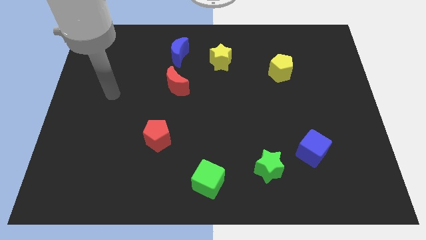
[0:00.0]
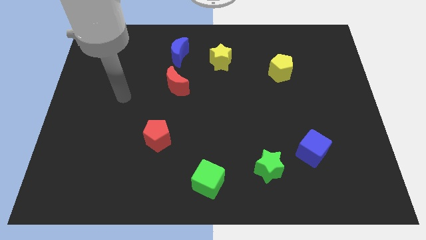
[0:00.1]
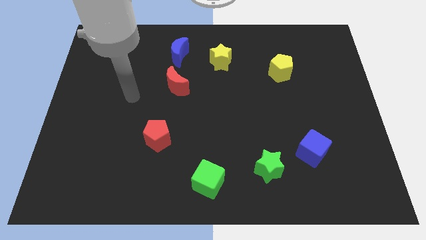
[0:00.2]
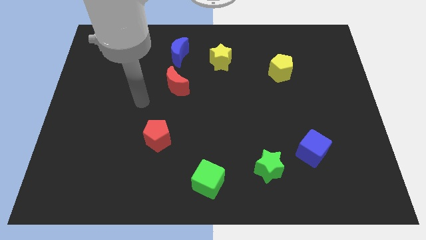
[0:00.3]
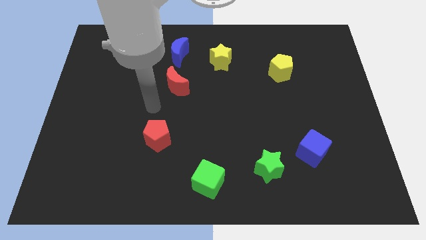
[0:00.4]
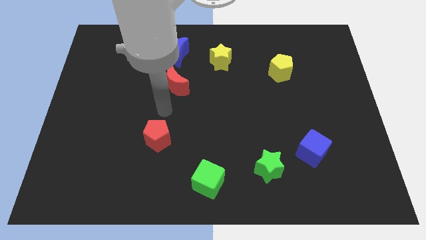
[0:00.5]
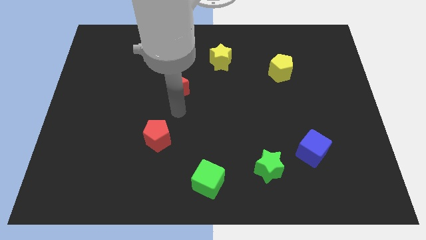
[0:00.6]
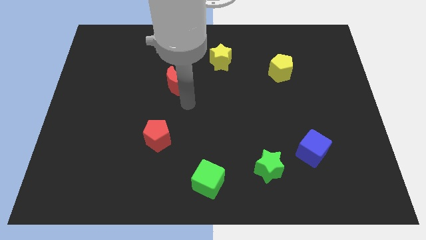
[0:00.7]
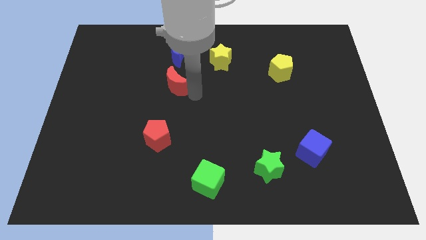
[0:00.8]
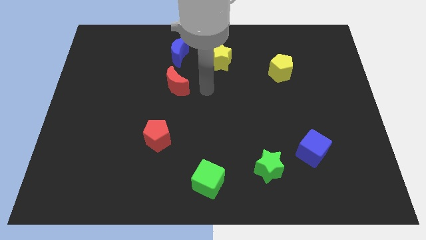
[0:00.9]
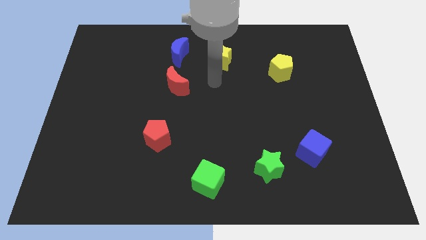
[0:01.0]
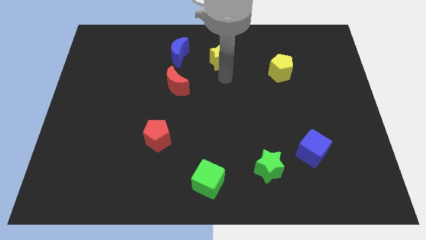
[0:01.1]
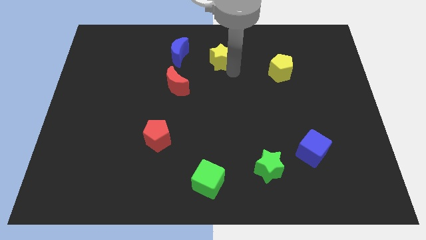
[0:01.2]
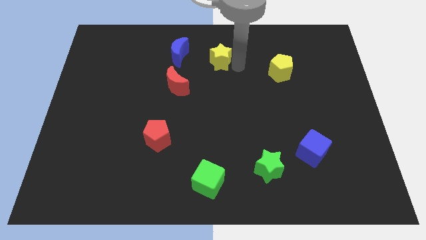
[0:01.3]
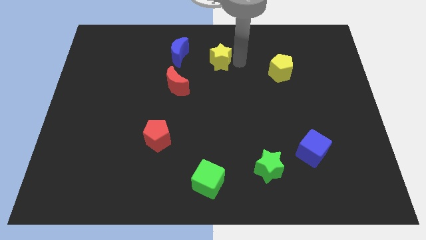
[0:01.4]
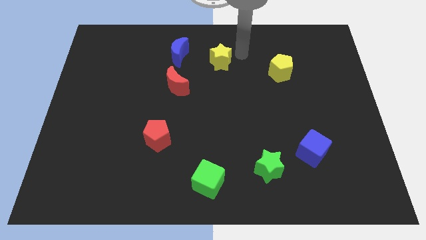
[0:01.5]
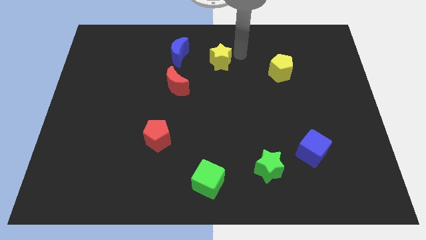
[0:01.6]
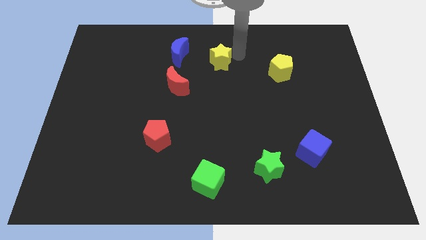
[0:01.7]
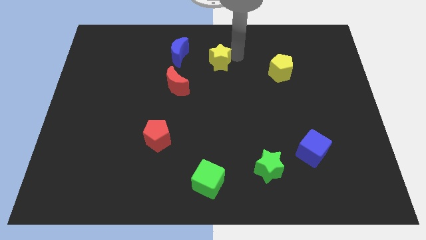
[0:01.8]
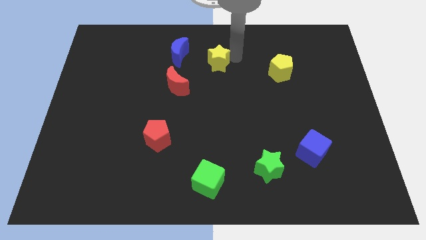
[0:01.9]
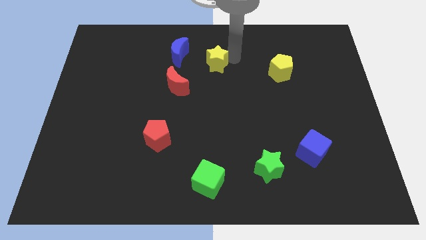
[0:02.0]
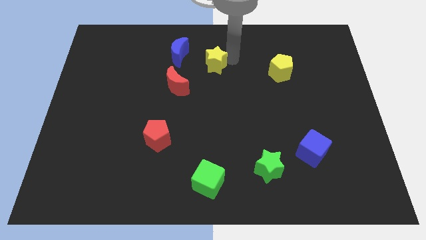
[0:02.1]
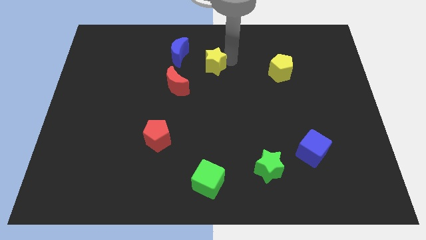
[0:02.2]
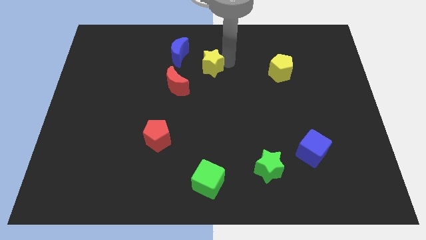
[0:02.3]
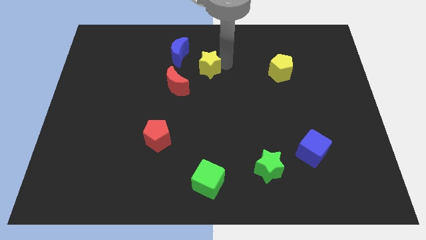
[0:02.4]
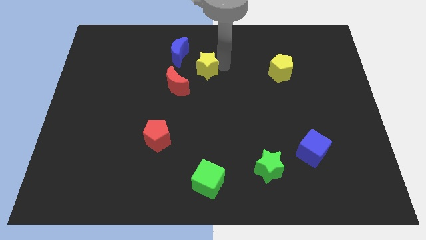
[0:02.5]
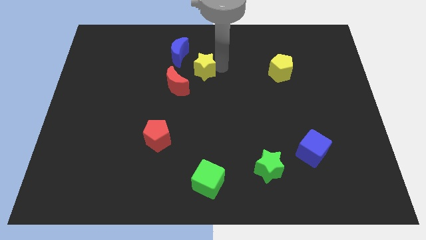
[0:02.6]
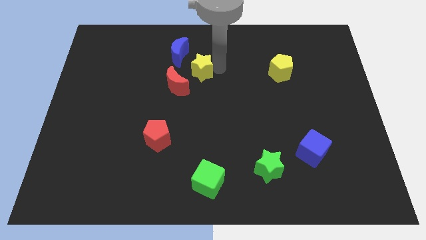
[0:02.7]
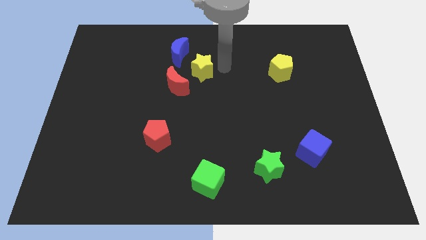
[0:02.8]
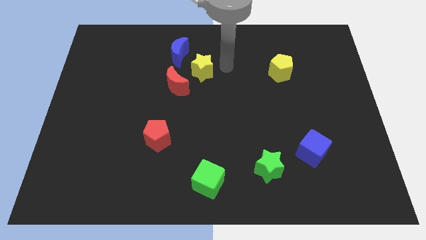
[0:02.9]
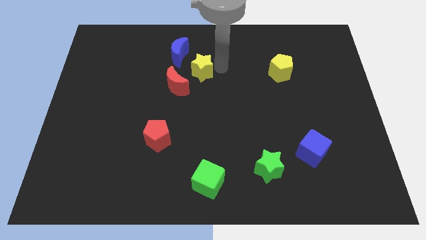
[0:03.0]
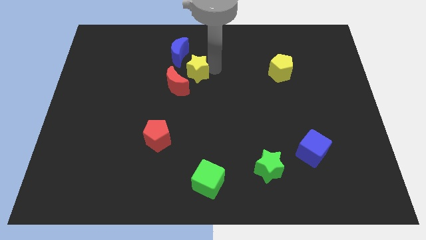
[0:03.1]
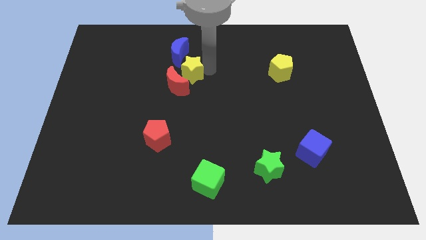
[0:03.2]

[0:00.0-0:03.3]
slightly push the yellow star to the left

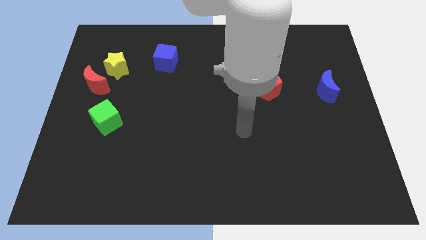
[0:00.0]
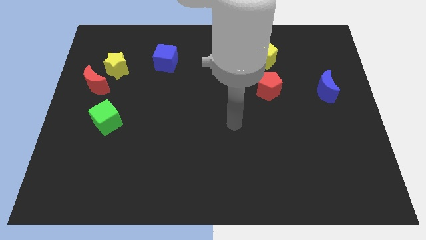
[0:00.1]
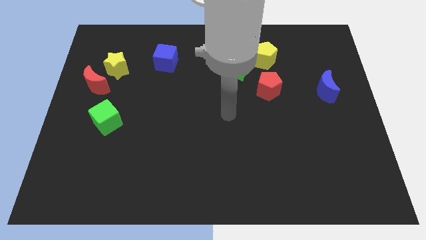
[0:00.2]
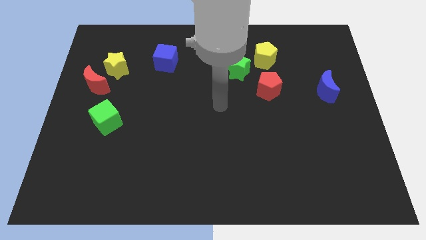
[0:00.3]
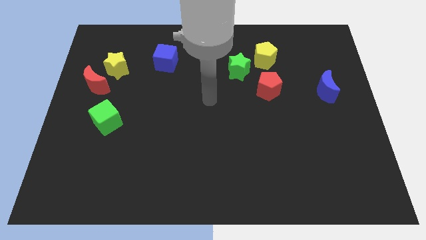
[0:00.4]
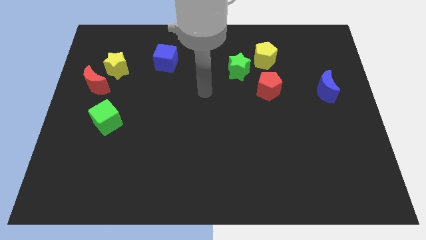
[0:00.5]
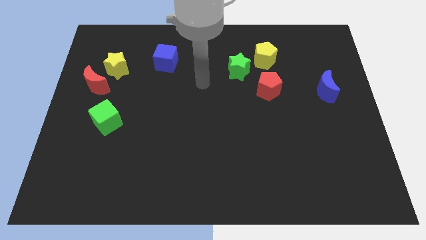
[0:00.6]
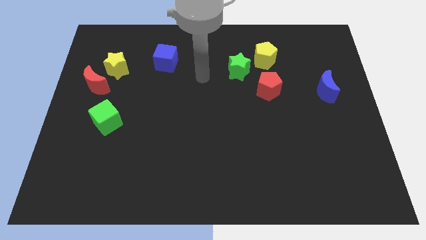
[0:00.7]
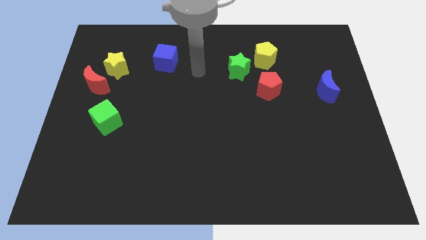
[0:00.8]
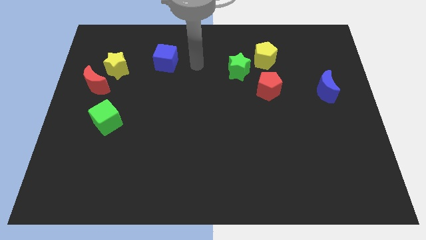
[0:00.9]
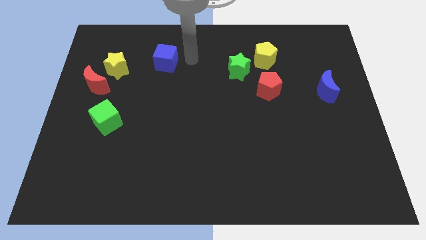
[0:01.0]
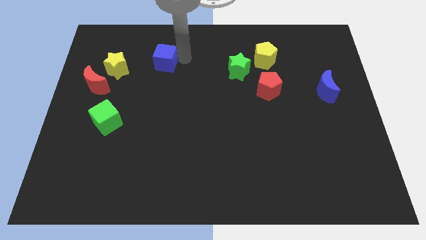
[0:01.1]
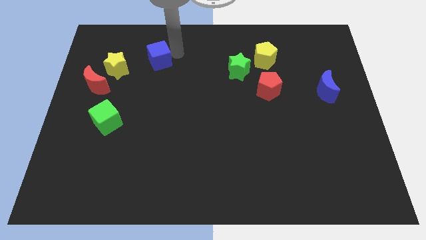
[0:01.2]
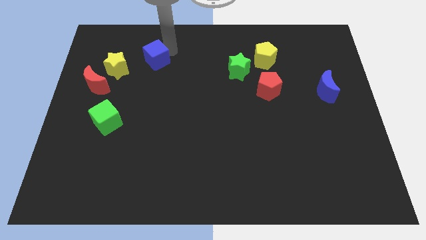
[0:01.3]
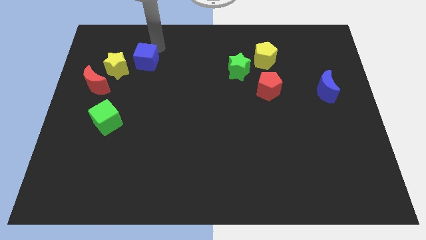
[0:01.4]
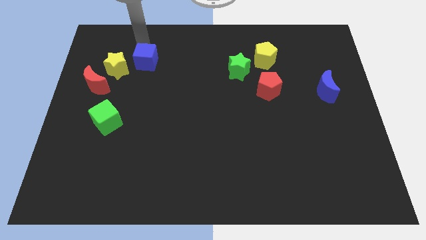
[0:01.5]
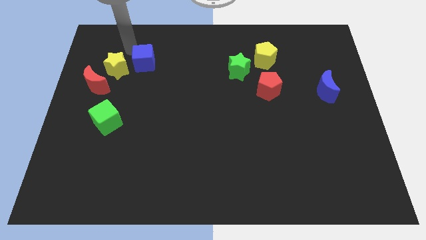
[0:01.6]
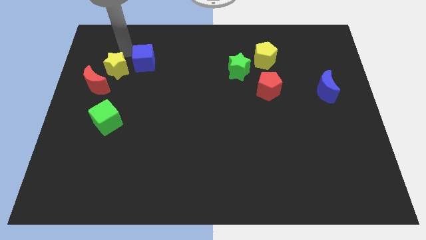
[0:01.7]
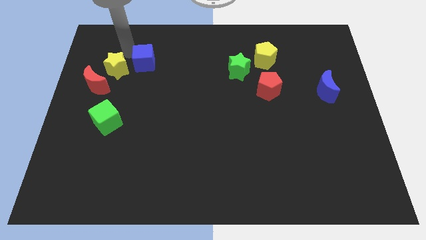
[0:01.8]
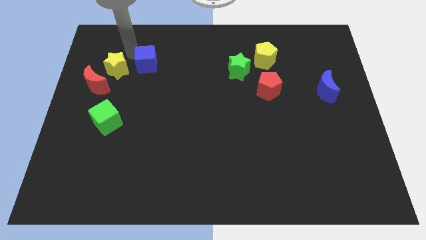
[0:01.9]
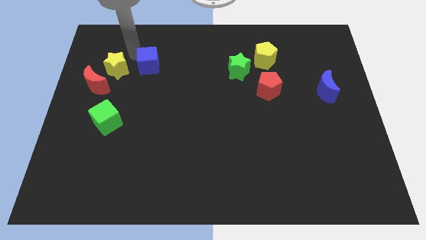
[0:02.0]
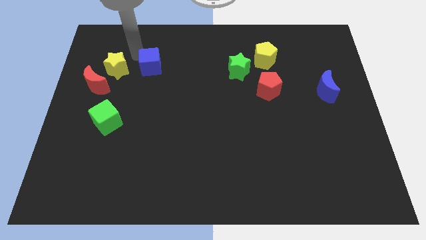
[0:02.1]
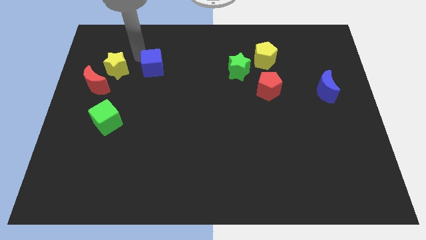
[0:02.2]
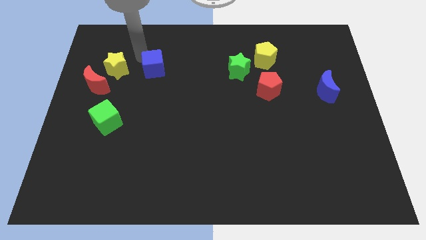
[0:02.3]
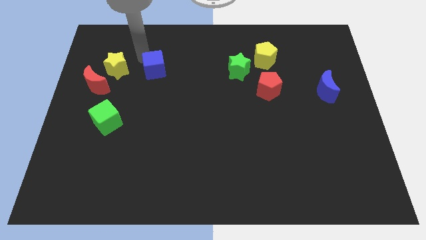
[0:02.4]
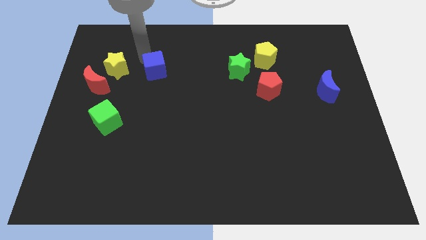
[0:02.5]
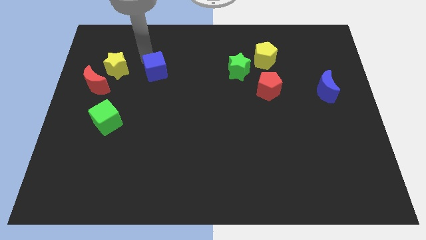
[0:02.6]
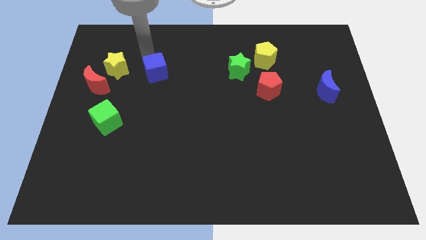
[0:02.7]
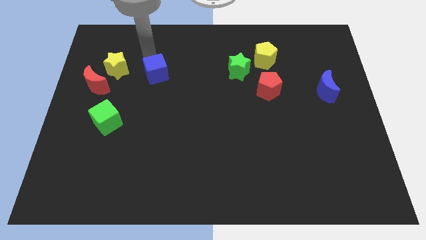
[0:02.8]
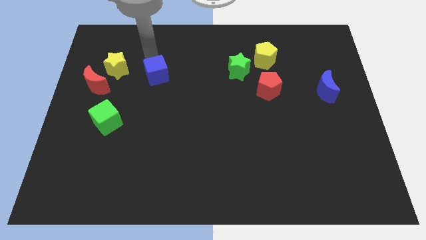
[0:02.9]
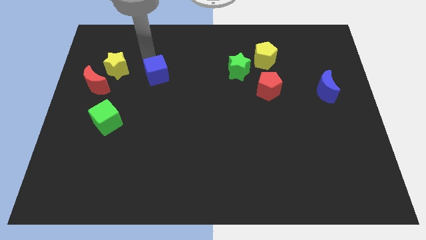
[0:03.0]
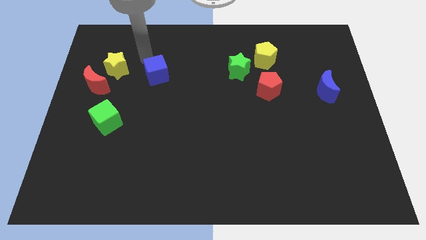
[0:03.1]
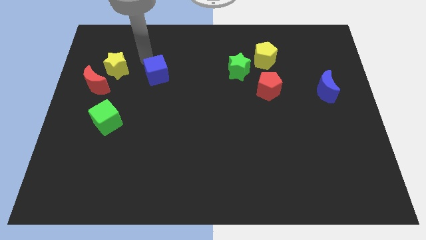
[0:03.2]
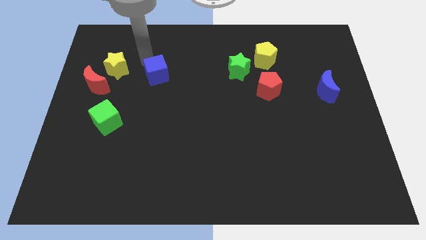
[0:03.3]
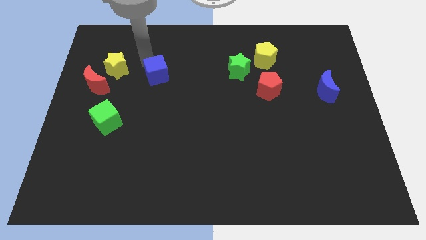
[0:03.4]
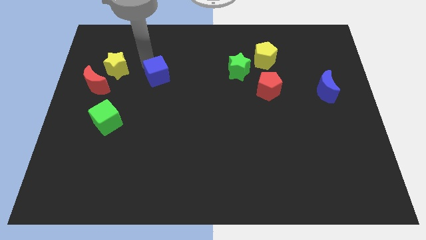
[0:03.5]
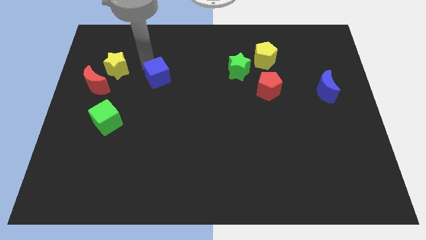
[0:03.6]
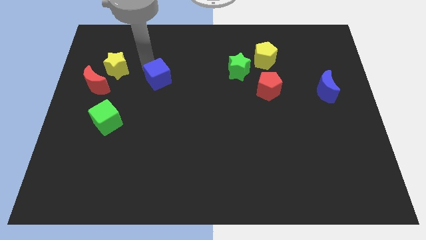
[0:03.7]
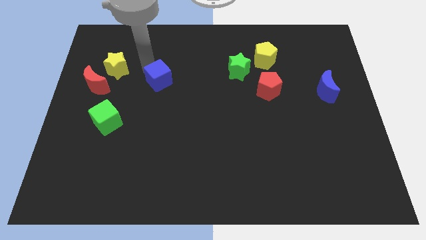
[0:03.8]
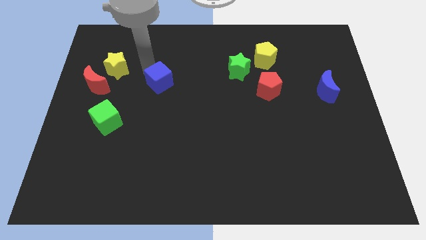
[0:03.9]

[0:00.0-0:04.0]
move the blue cube somewhat down

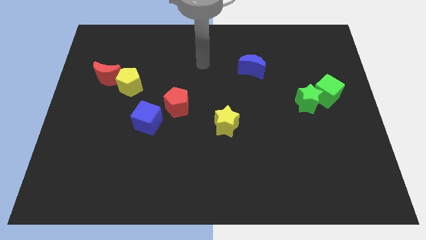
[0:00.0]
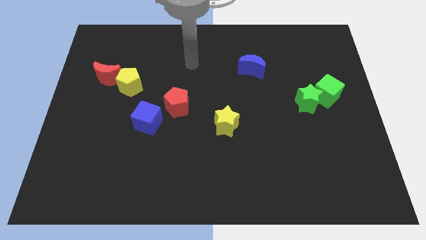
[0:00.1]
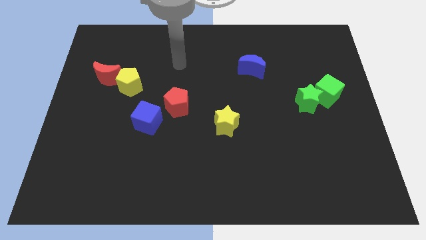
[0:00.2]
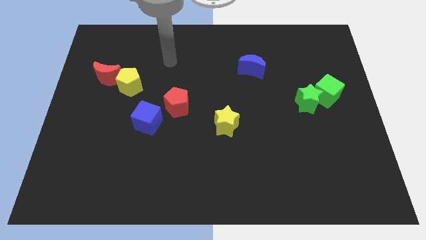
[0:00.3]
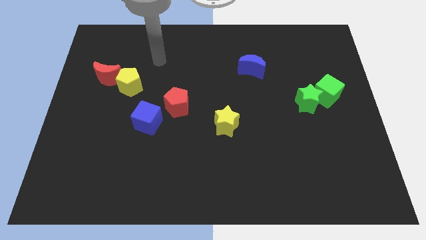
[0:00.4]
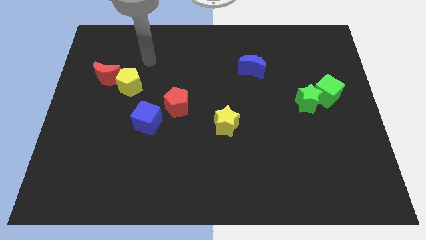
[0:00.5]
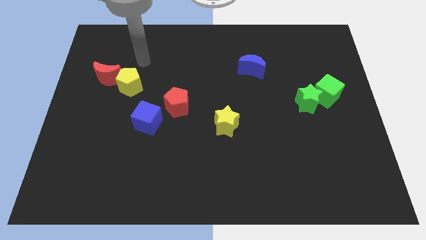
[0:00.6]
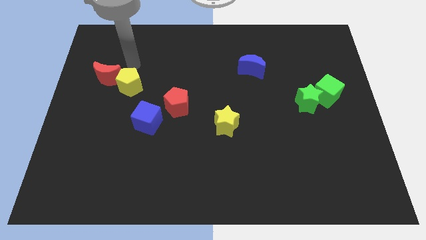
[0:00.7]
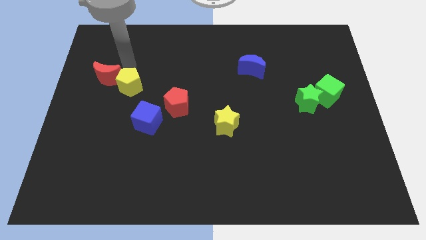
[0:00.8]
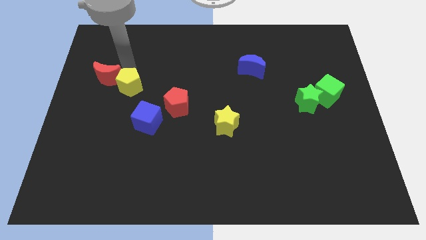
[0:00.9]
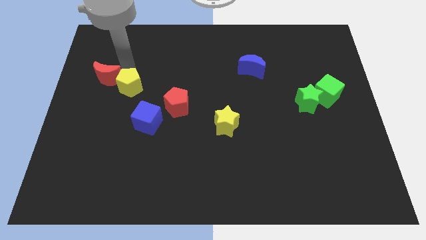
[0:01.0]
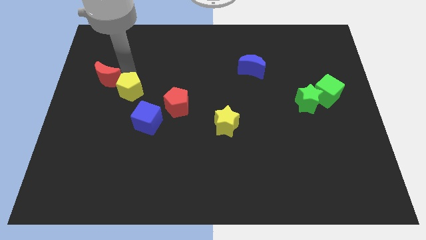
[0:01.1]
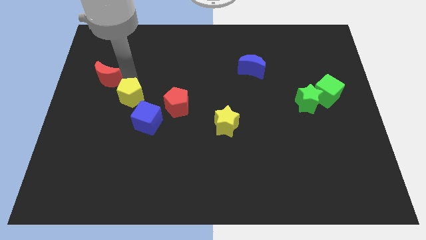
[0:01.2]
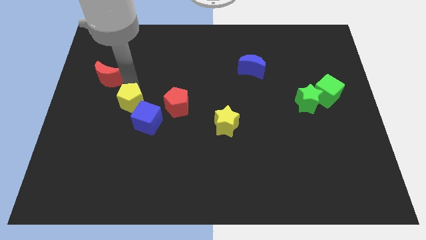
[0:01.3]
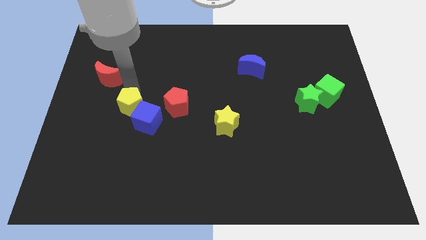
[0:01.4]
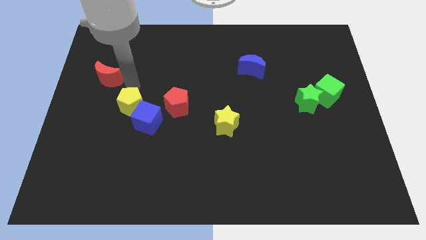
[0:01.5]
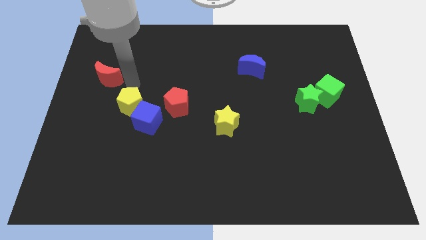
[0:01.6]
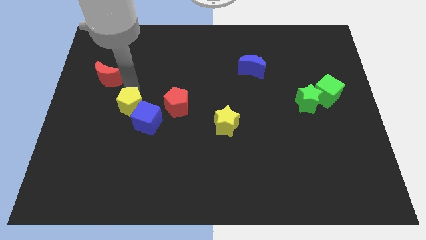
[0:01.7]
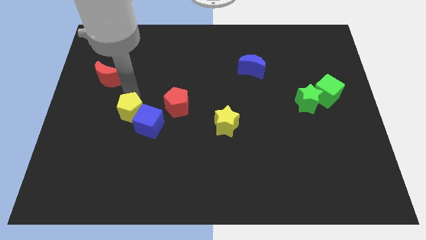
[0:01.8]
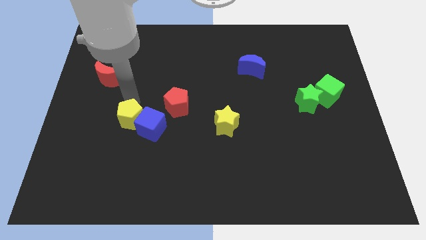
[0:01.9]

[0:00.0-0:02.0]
slightly push the yellow pentagon downwards and then right
